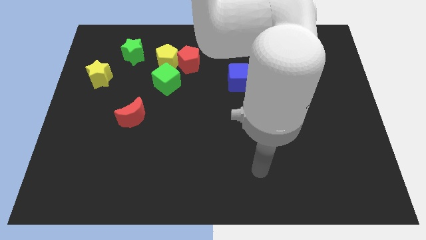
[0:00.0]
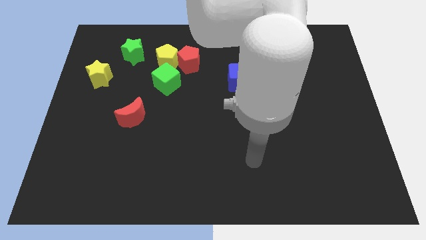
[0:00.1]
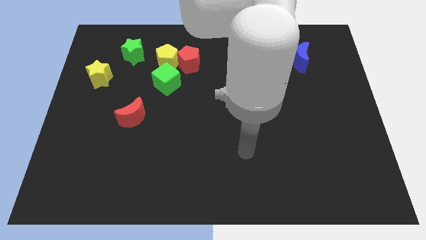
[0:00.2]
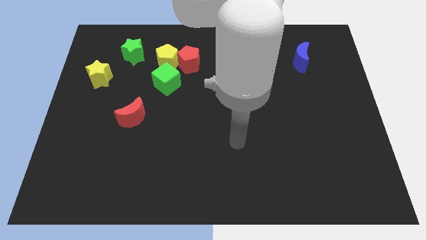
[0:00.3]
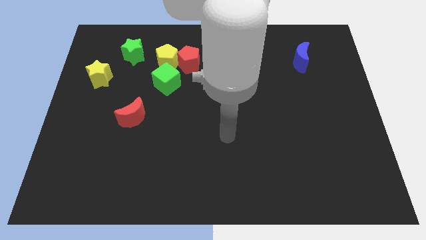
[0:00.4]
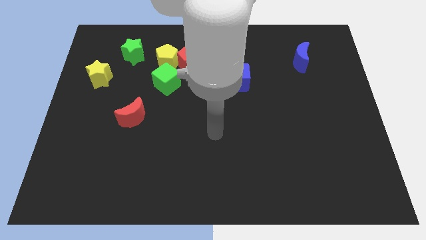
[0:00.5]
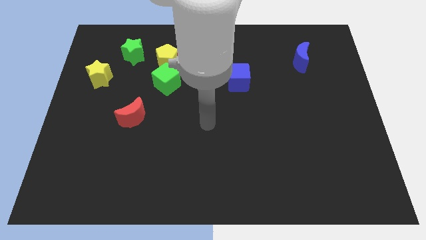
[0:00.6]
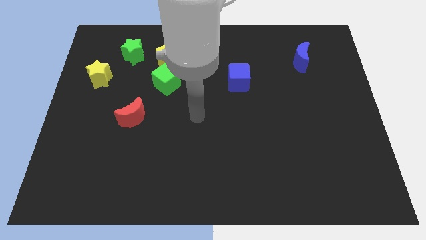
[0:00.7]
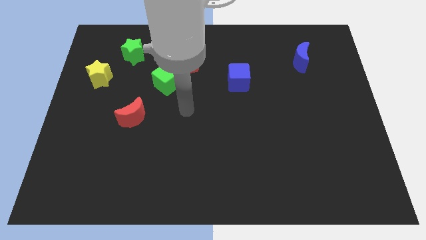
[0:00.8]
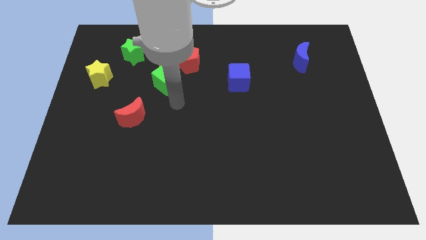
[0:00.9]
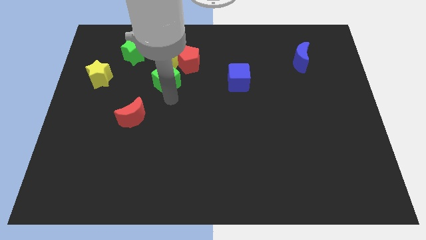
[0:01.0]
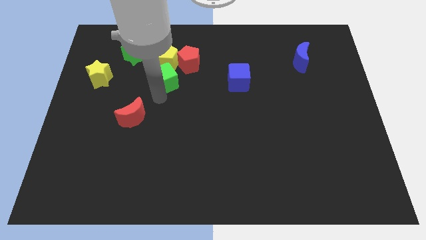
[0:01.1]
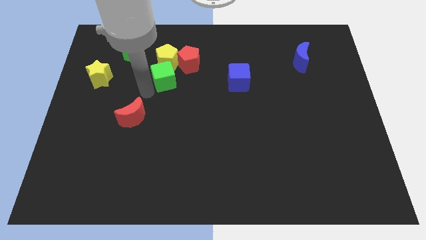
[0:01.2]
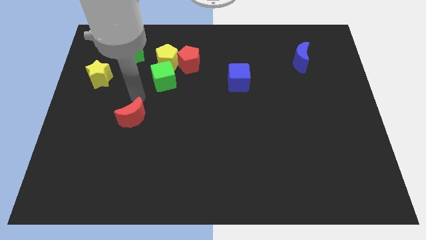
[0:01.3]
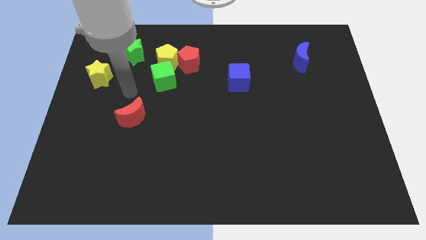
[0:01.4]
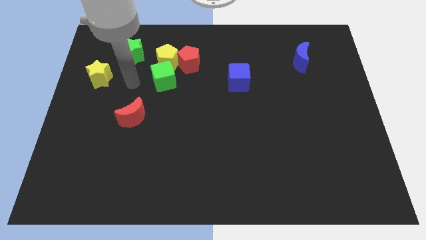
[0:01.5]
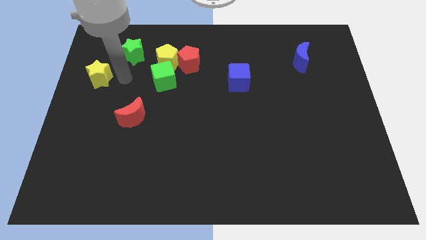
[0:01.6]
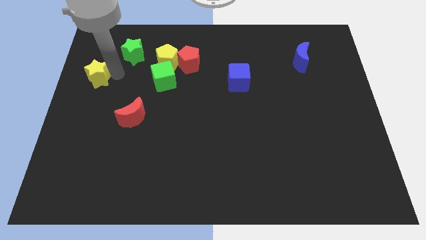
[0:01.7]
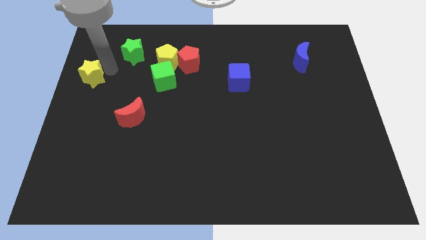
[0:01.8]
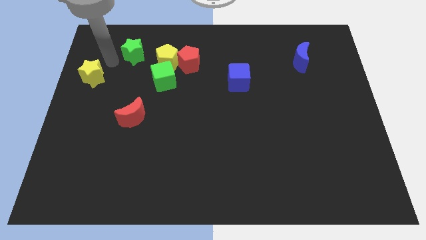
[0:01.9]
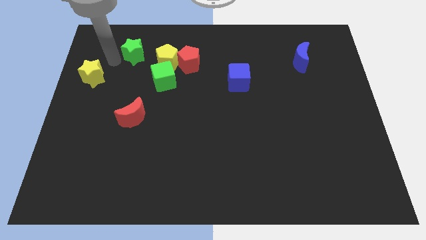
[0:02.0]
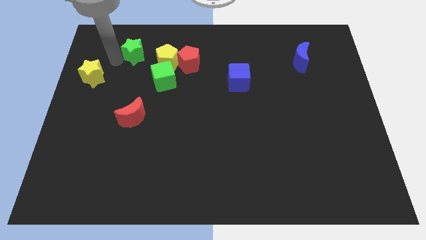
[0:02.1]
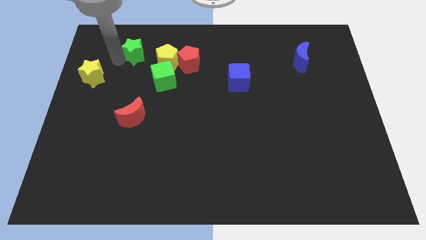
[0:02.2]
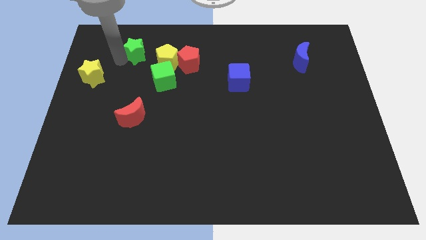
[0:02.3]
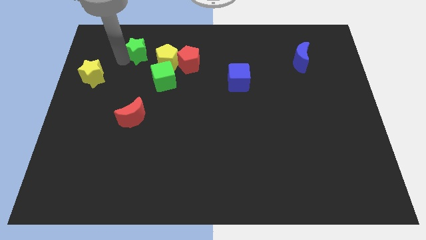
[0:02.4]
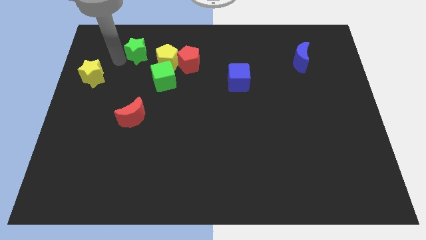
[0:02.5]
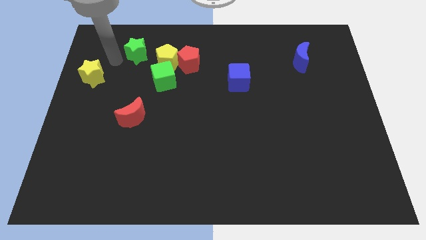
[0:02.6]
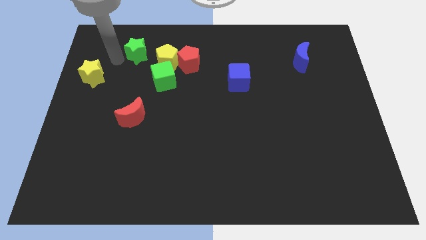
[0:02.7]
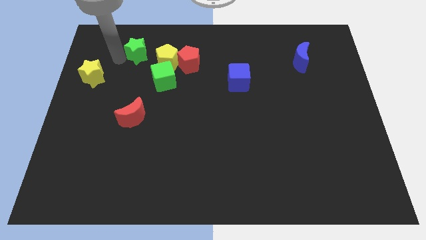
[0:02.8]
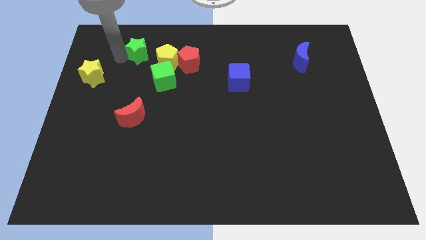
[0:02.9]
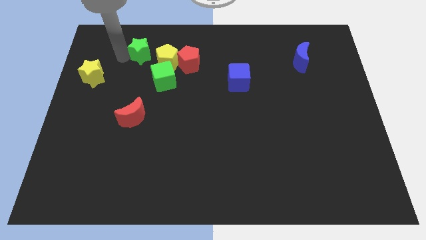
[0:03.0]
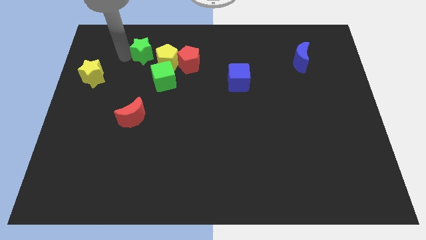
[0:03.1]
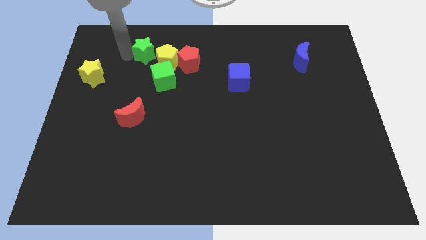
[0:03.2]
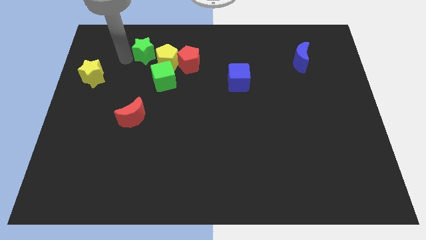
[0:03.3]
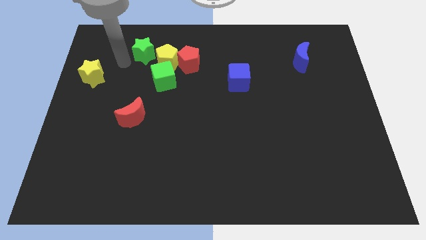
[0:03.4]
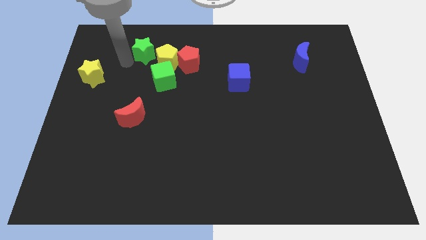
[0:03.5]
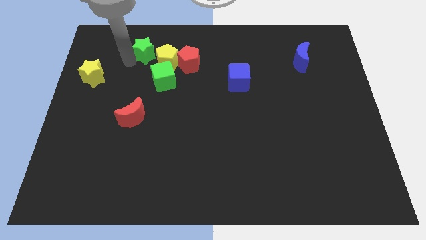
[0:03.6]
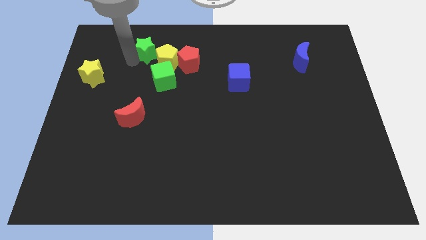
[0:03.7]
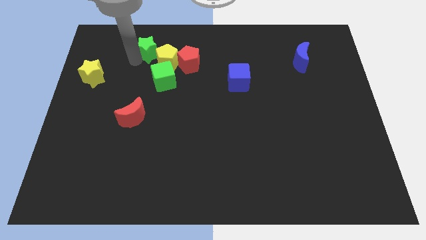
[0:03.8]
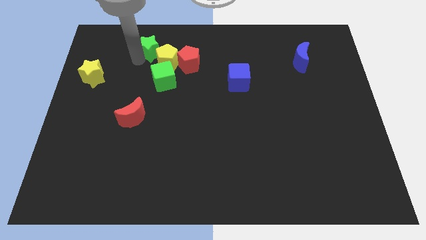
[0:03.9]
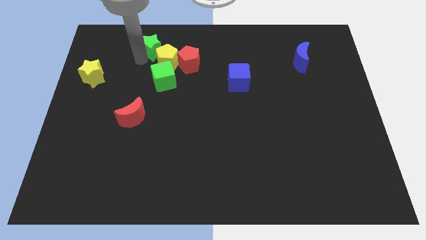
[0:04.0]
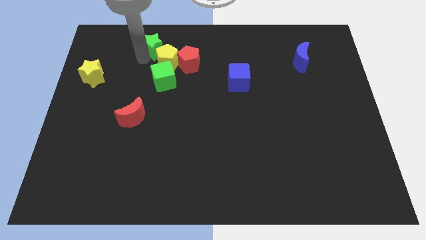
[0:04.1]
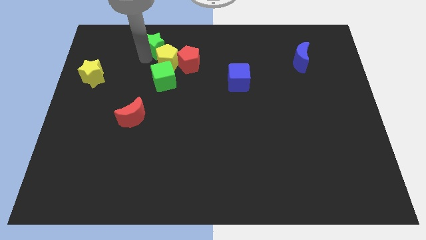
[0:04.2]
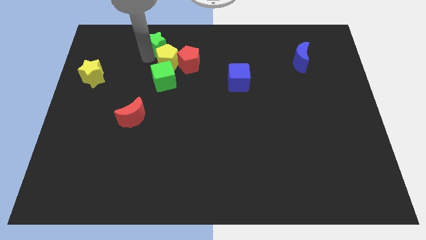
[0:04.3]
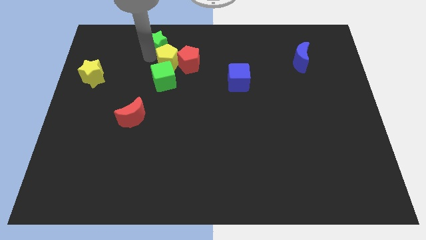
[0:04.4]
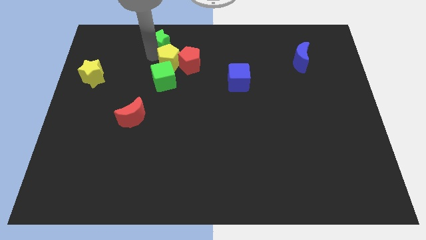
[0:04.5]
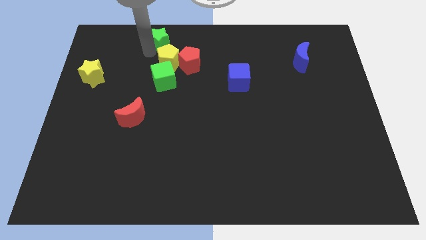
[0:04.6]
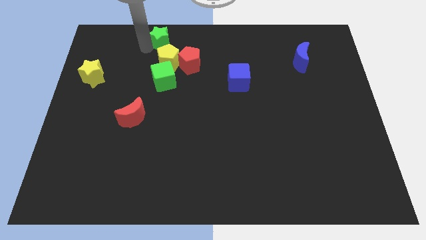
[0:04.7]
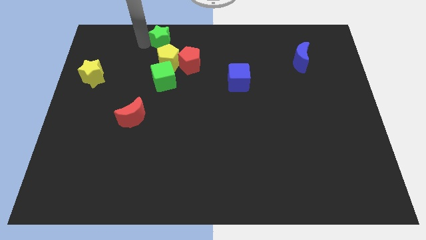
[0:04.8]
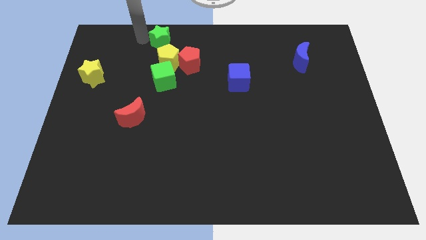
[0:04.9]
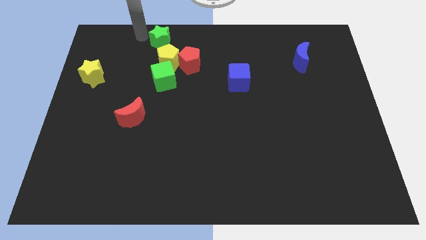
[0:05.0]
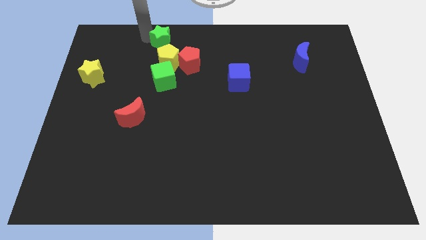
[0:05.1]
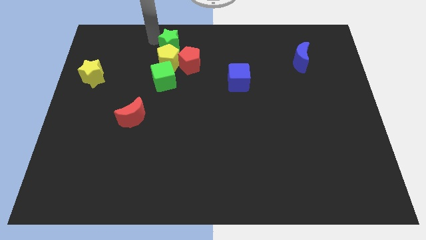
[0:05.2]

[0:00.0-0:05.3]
slightly push the green star right

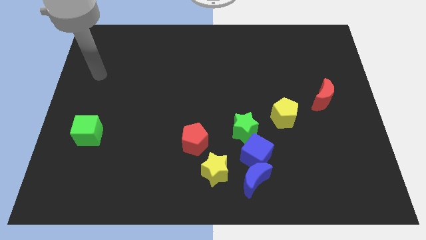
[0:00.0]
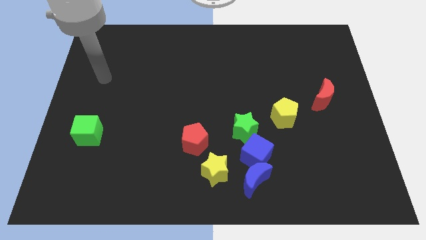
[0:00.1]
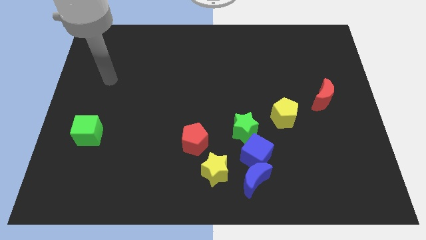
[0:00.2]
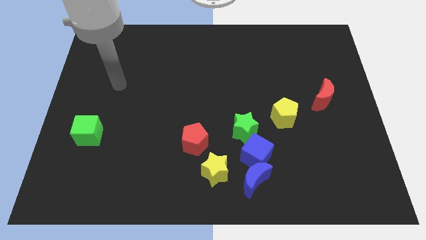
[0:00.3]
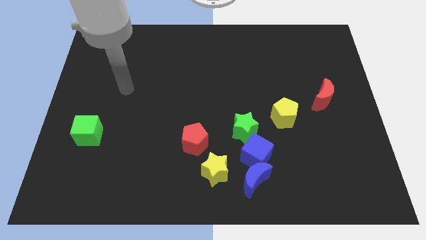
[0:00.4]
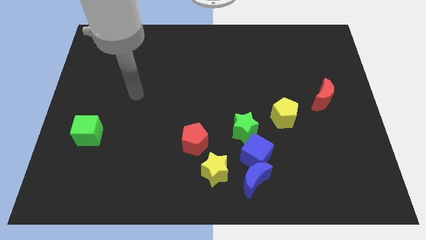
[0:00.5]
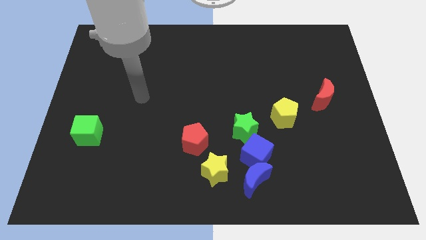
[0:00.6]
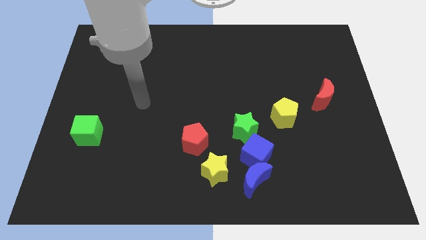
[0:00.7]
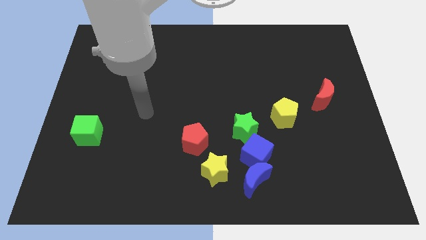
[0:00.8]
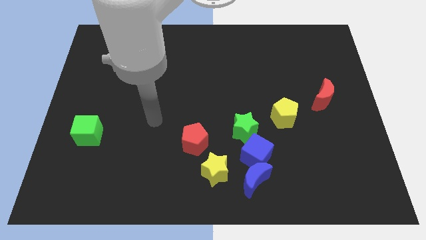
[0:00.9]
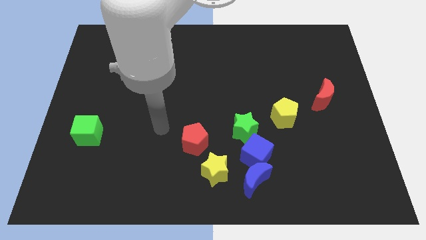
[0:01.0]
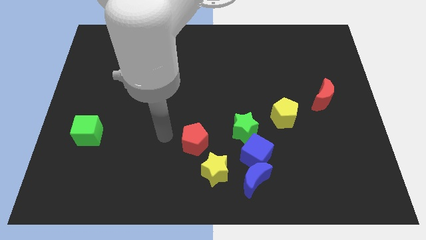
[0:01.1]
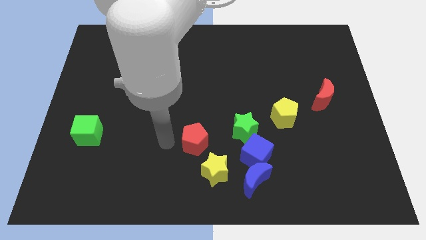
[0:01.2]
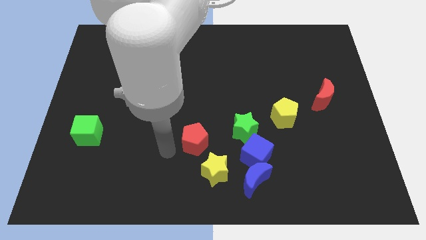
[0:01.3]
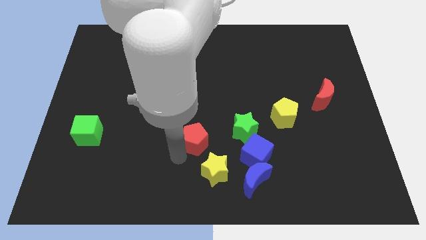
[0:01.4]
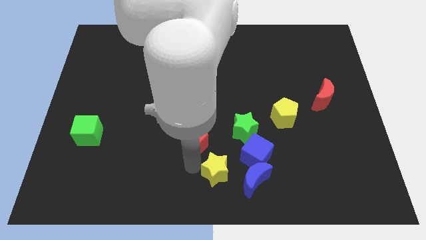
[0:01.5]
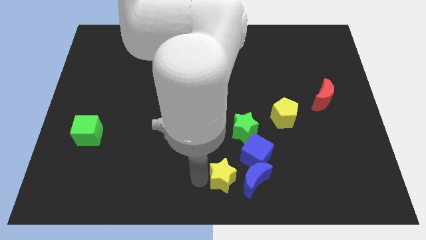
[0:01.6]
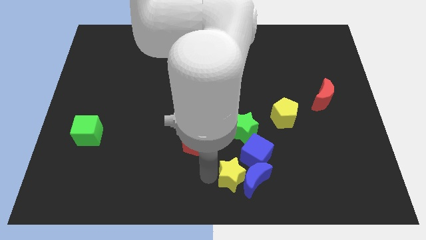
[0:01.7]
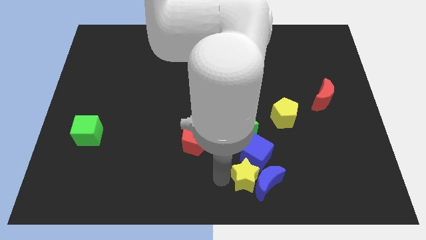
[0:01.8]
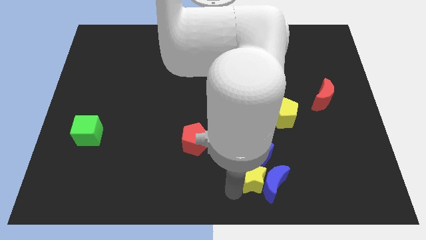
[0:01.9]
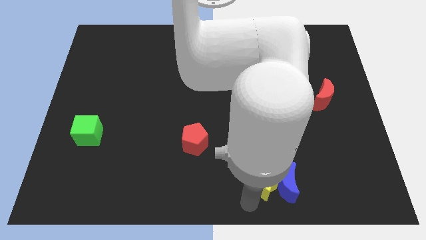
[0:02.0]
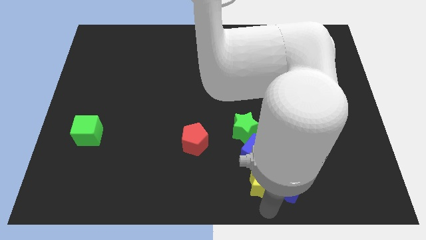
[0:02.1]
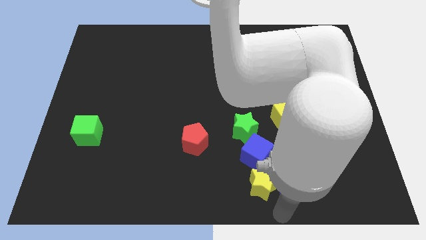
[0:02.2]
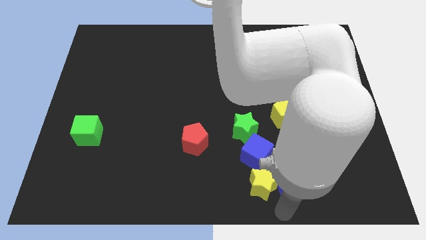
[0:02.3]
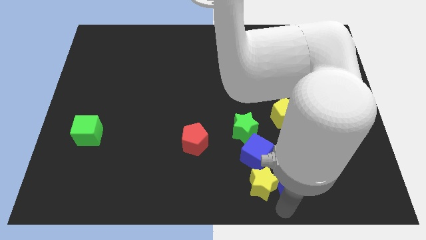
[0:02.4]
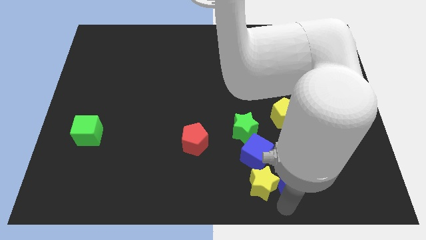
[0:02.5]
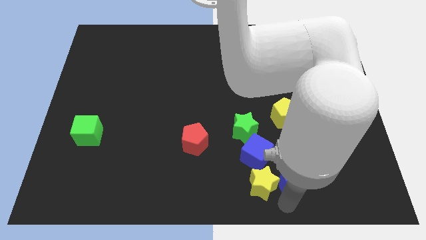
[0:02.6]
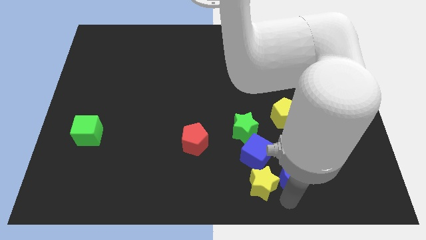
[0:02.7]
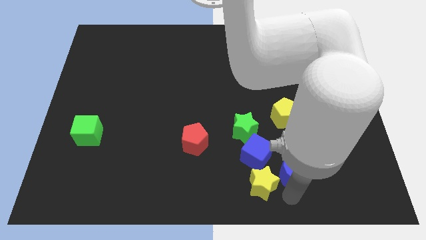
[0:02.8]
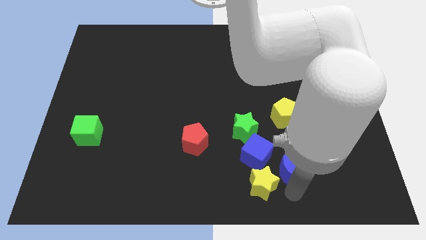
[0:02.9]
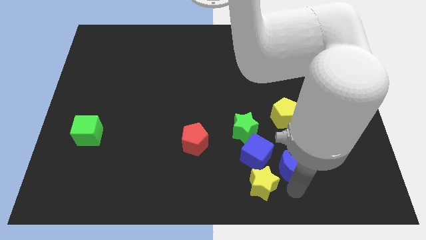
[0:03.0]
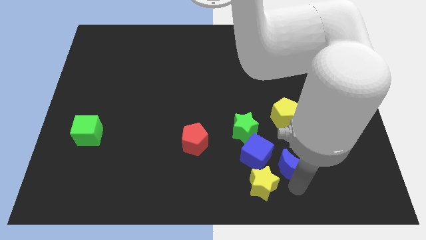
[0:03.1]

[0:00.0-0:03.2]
push the blue moon a little bit upwards and right diagonally
